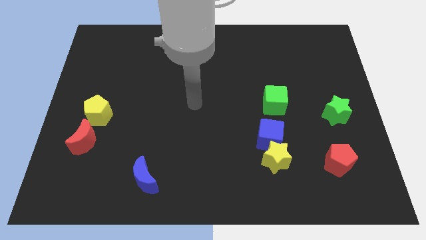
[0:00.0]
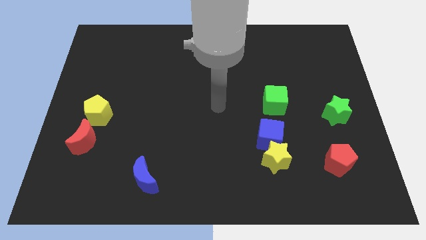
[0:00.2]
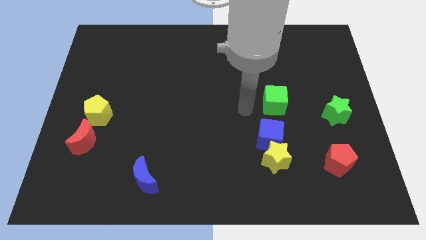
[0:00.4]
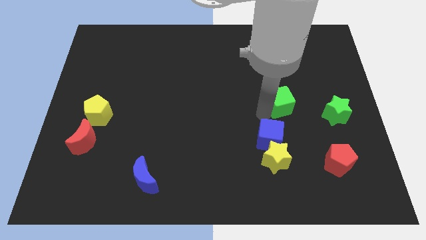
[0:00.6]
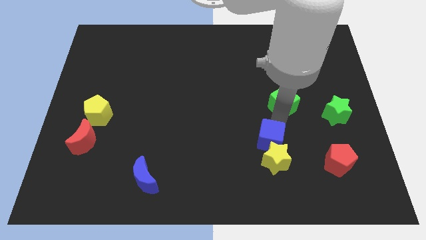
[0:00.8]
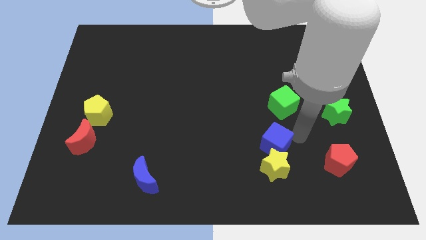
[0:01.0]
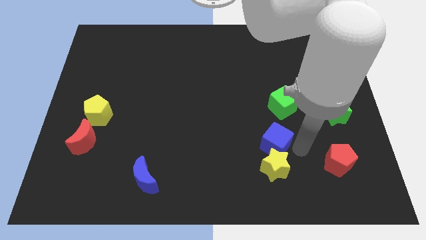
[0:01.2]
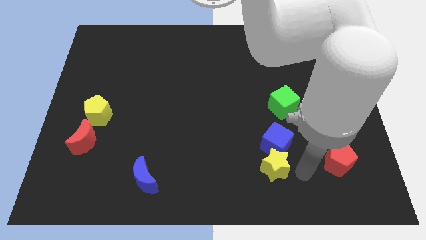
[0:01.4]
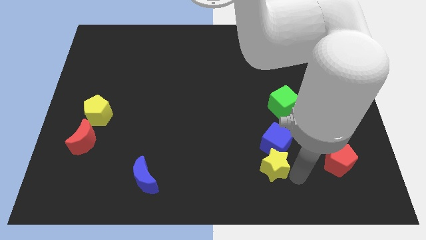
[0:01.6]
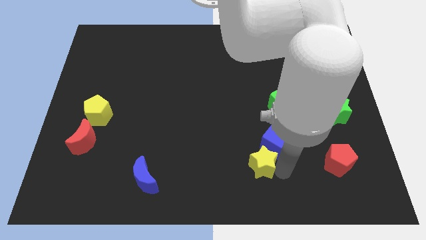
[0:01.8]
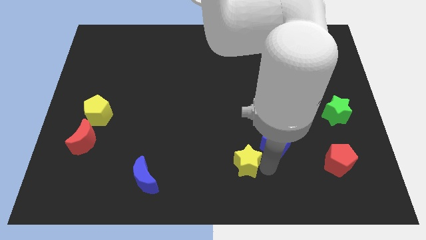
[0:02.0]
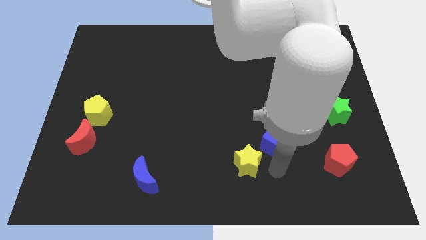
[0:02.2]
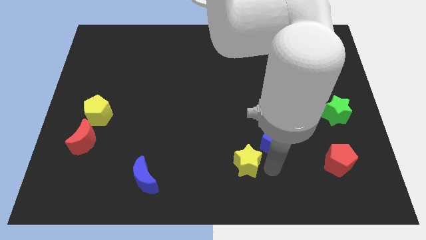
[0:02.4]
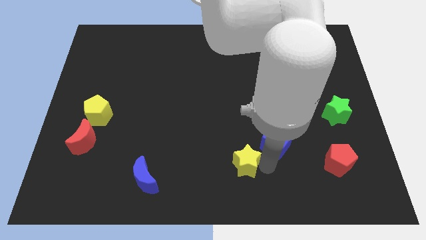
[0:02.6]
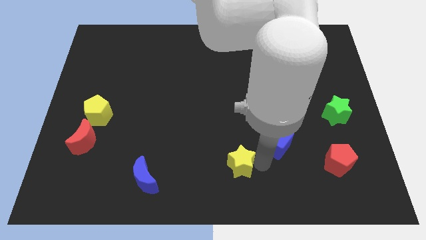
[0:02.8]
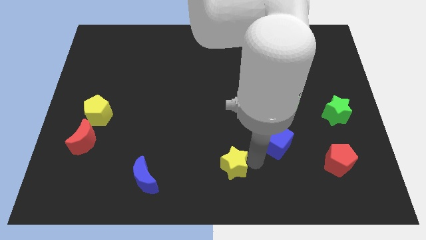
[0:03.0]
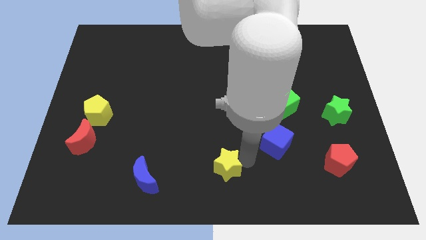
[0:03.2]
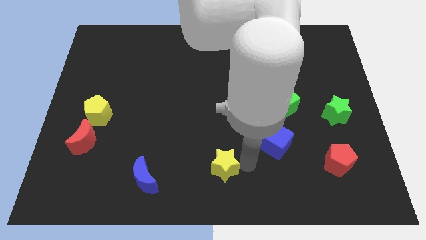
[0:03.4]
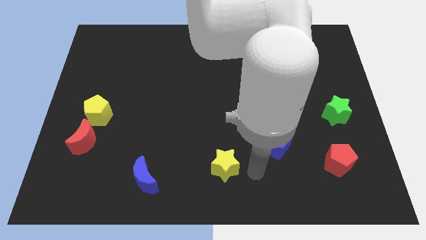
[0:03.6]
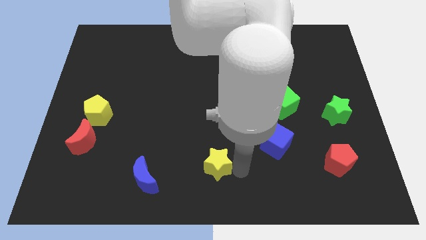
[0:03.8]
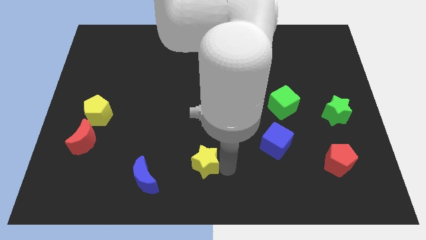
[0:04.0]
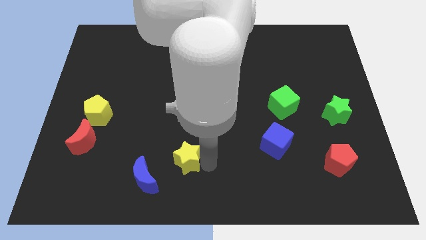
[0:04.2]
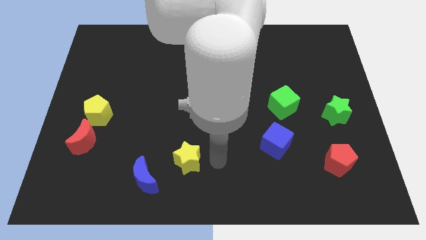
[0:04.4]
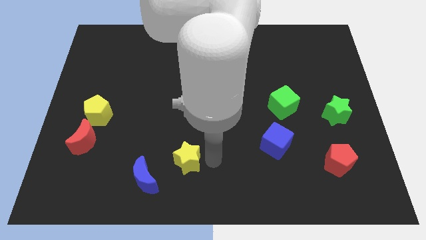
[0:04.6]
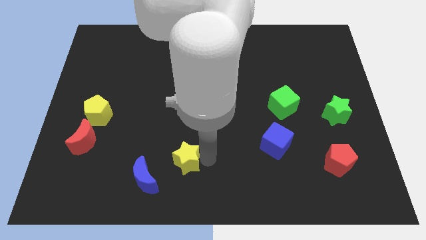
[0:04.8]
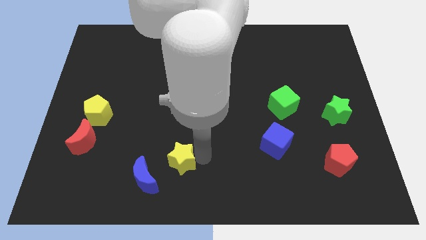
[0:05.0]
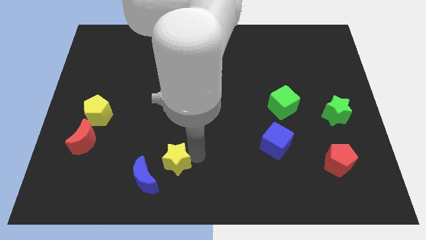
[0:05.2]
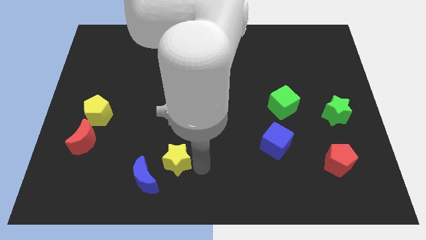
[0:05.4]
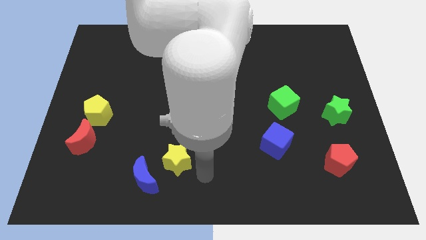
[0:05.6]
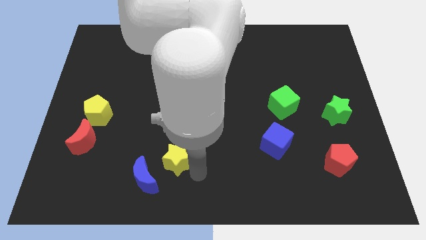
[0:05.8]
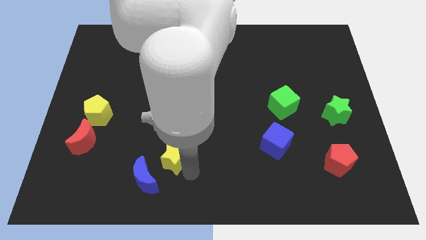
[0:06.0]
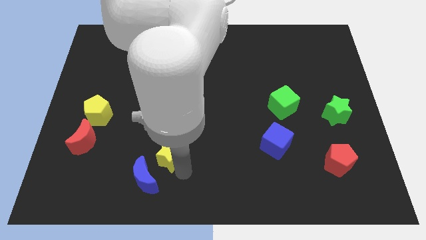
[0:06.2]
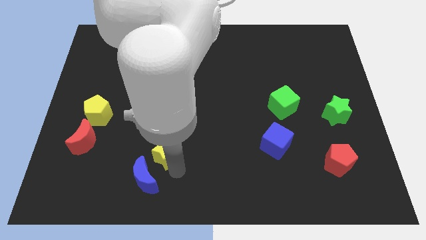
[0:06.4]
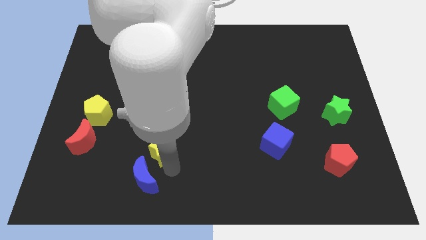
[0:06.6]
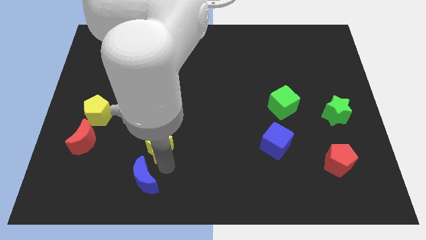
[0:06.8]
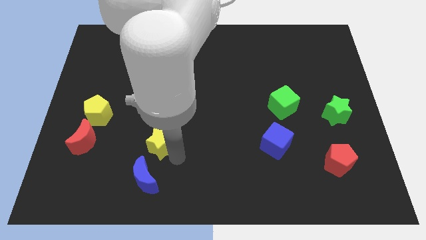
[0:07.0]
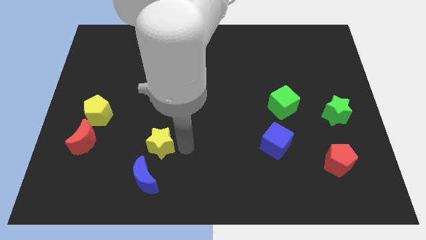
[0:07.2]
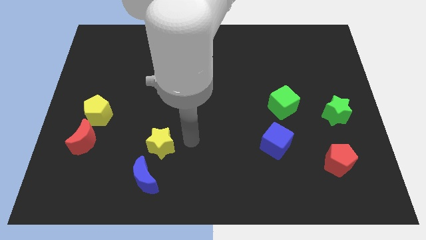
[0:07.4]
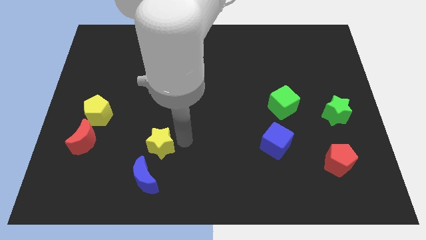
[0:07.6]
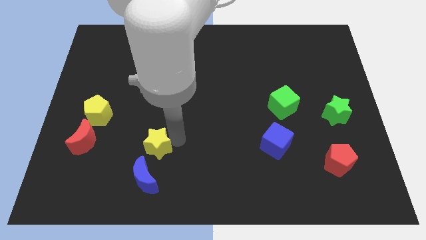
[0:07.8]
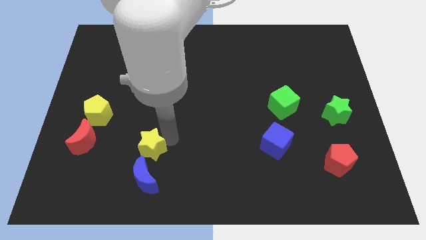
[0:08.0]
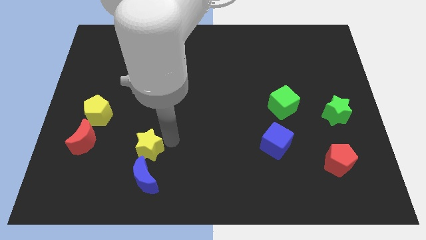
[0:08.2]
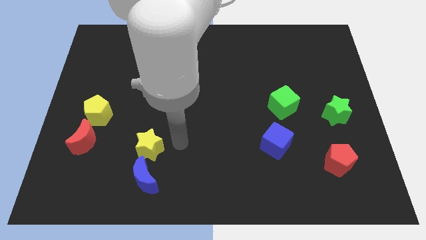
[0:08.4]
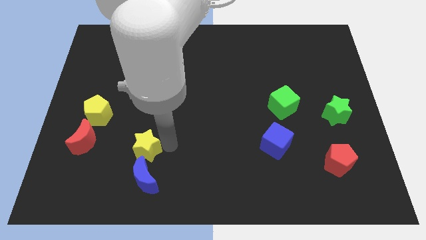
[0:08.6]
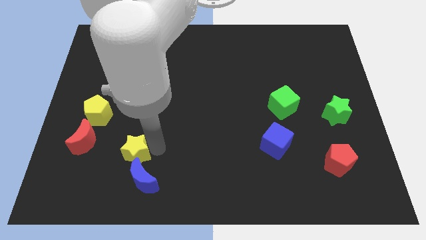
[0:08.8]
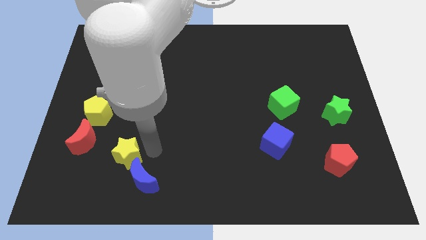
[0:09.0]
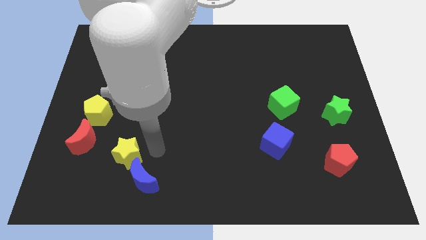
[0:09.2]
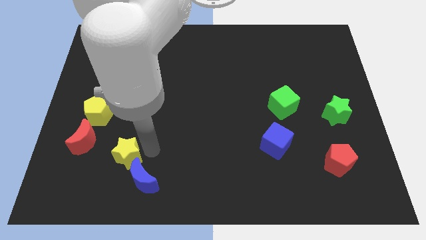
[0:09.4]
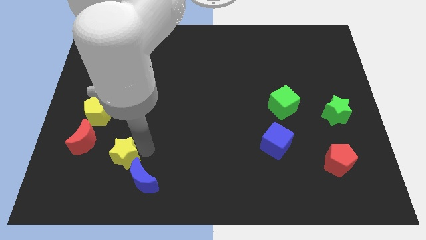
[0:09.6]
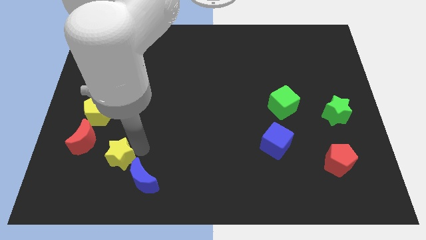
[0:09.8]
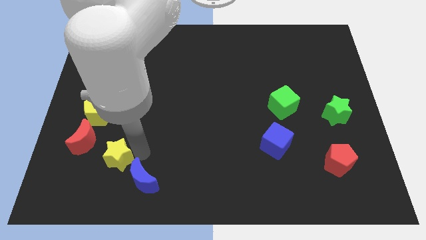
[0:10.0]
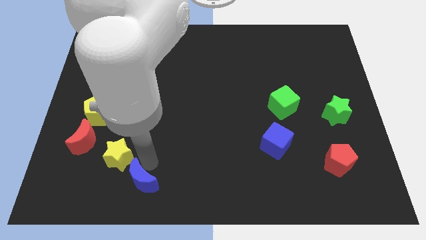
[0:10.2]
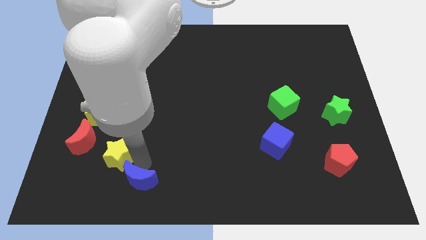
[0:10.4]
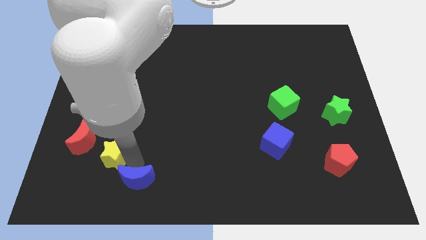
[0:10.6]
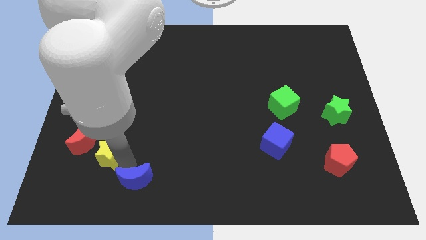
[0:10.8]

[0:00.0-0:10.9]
slide the yellow star to the bottom side of the yellow pentagon

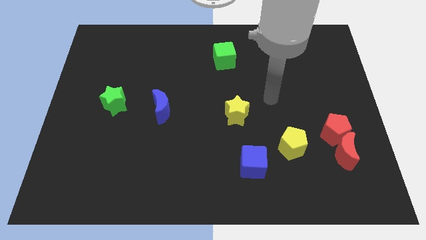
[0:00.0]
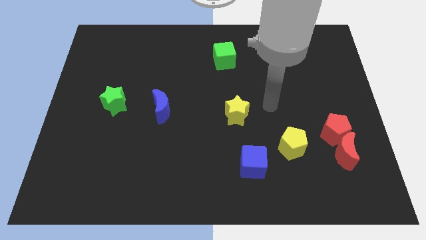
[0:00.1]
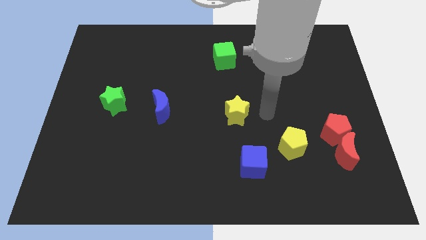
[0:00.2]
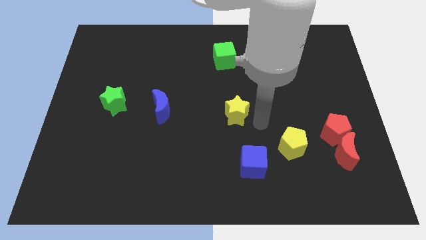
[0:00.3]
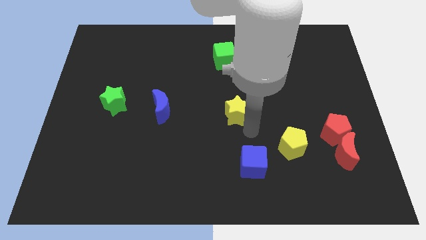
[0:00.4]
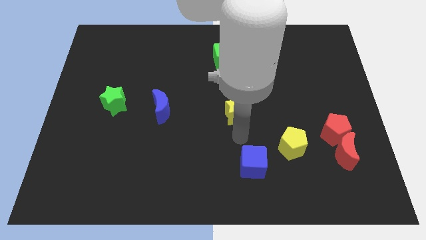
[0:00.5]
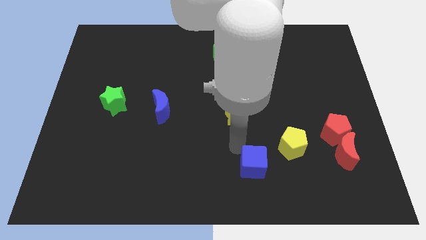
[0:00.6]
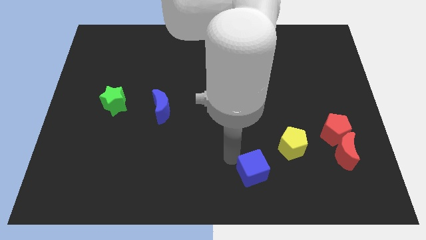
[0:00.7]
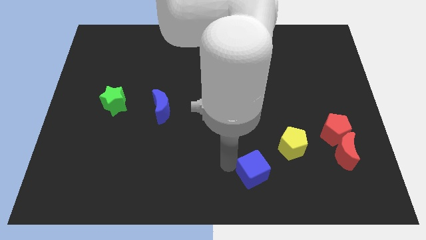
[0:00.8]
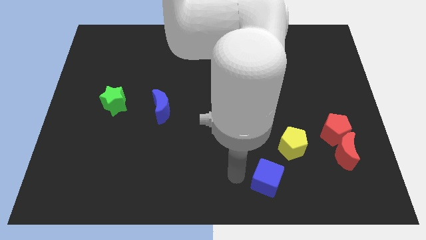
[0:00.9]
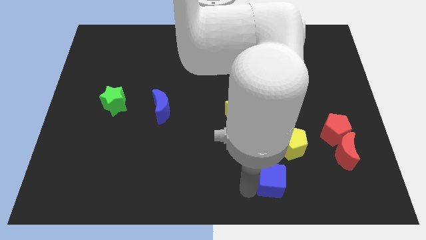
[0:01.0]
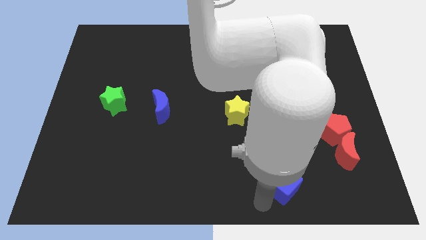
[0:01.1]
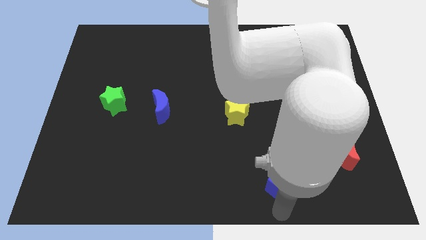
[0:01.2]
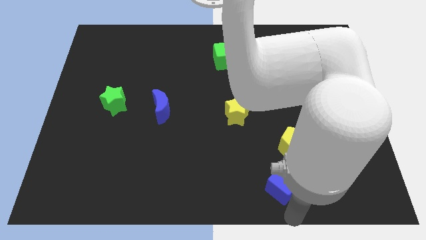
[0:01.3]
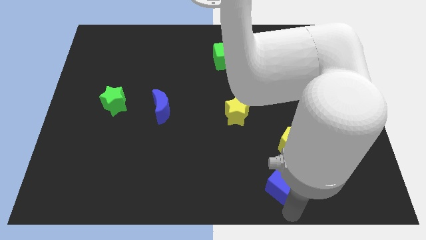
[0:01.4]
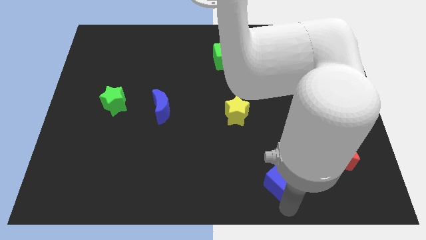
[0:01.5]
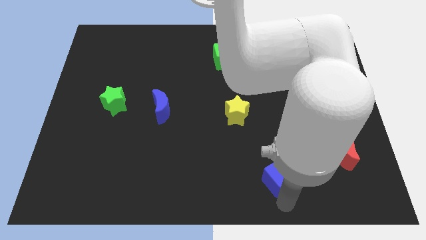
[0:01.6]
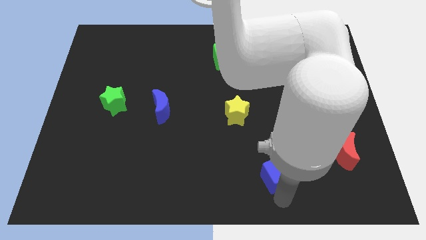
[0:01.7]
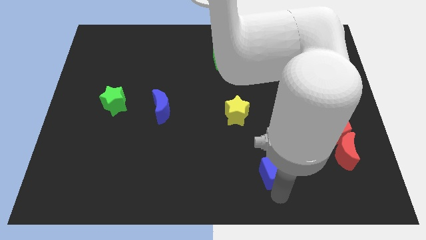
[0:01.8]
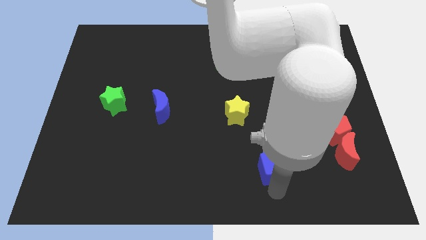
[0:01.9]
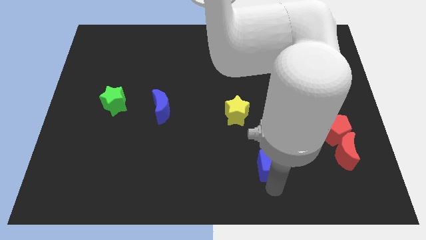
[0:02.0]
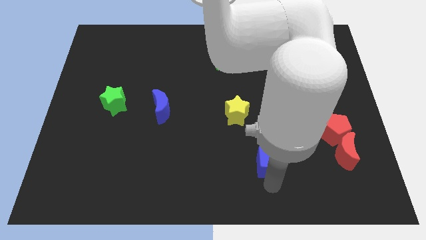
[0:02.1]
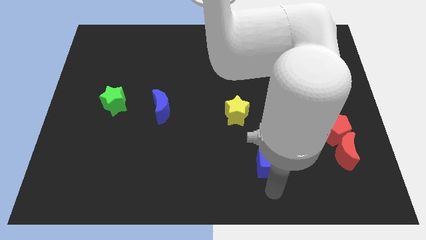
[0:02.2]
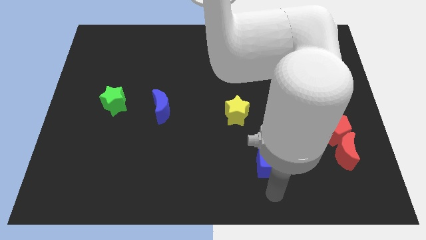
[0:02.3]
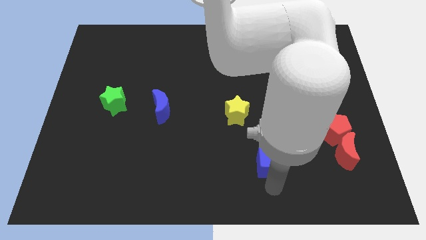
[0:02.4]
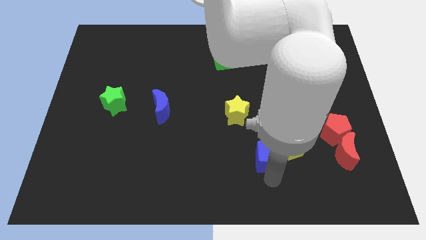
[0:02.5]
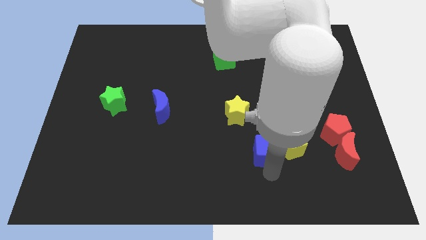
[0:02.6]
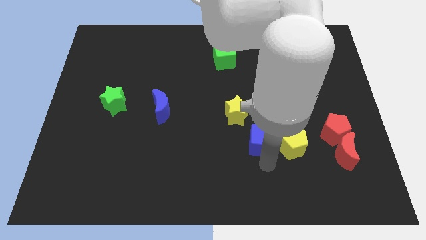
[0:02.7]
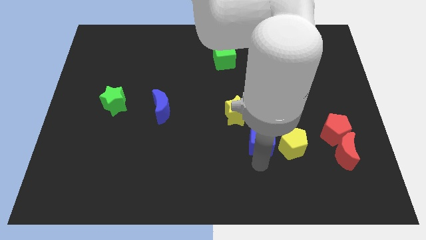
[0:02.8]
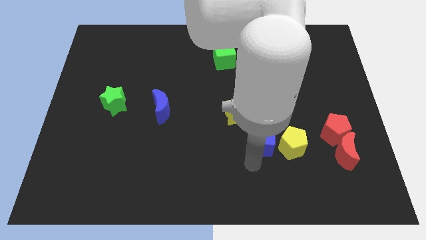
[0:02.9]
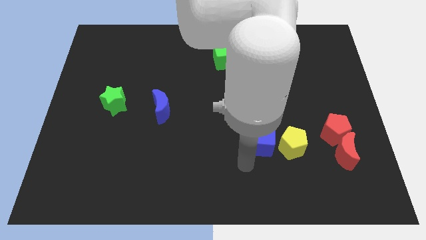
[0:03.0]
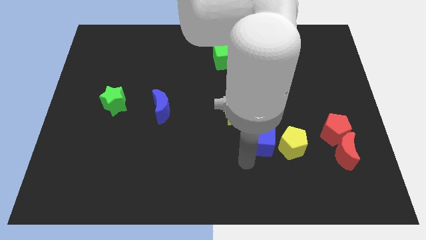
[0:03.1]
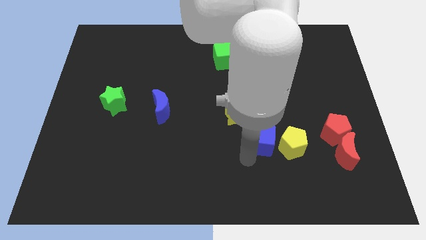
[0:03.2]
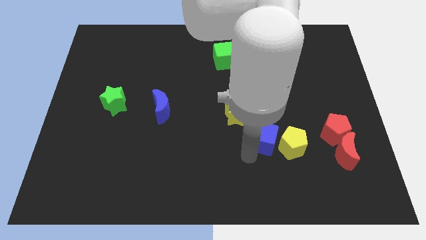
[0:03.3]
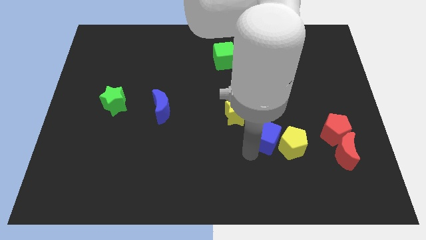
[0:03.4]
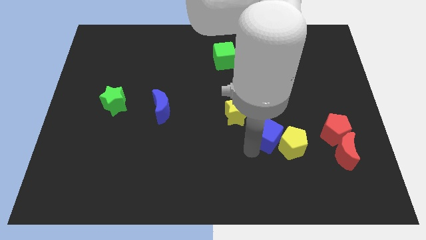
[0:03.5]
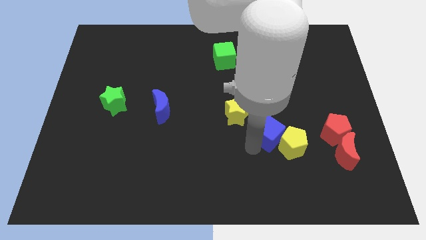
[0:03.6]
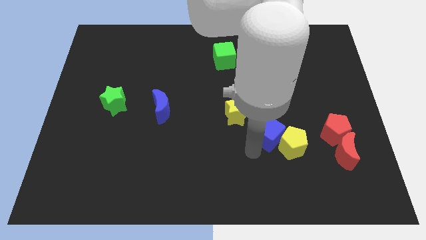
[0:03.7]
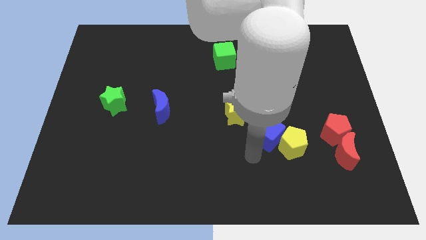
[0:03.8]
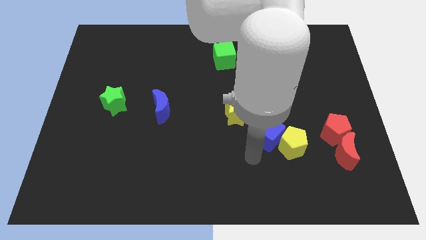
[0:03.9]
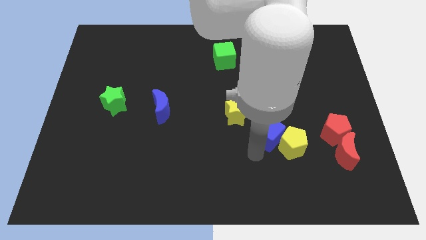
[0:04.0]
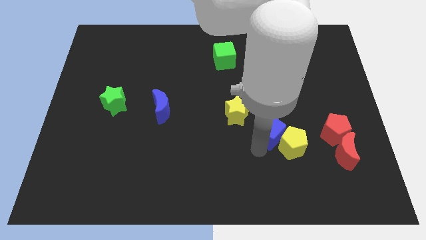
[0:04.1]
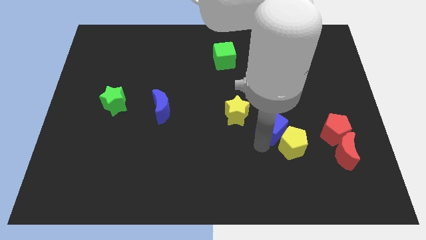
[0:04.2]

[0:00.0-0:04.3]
move the blue cube to the top of the yellow pentagon
